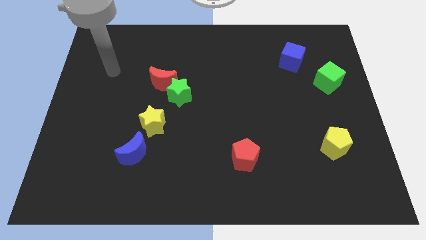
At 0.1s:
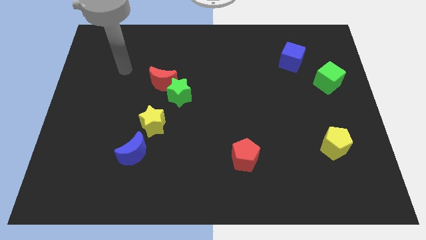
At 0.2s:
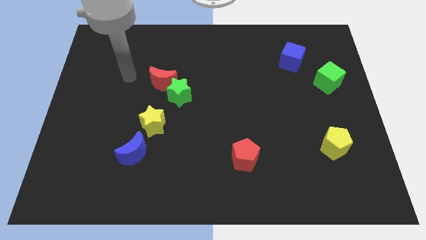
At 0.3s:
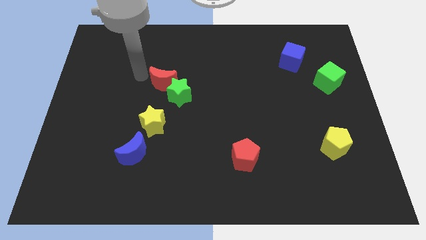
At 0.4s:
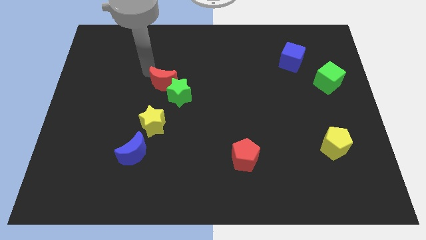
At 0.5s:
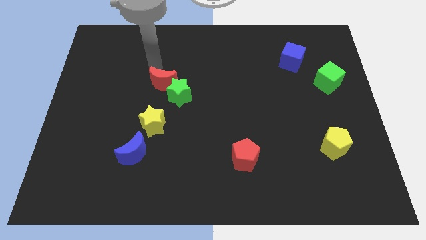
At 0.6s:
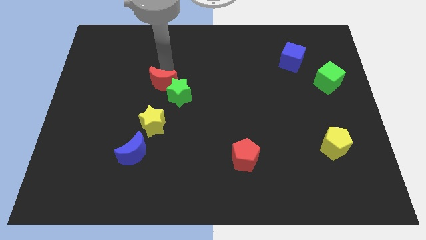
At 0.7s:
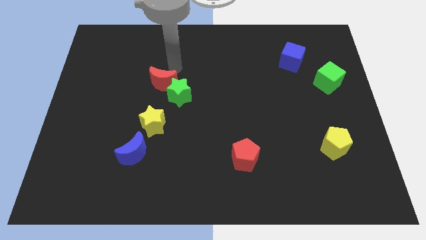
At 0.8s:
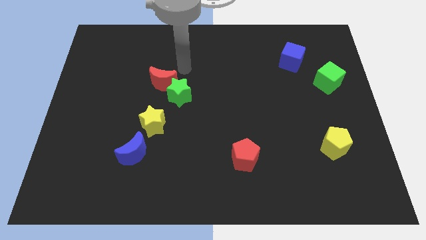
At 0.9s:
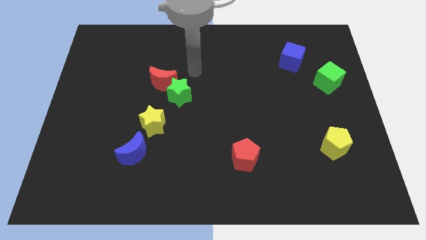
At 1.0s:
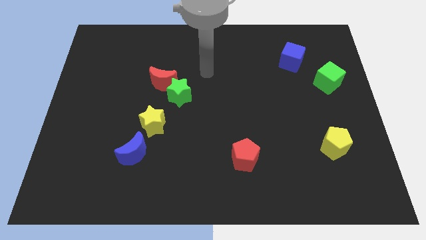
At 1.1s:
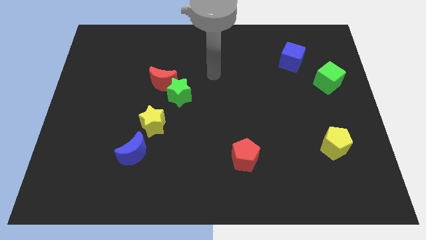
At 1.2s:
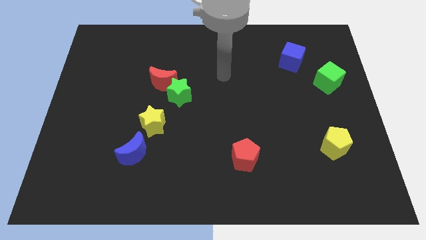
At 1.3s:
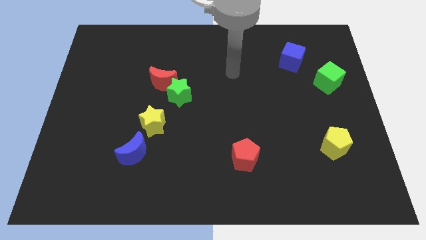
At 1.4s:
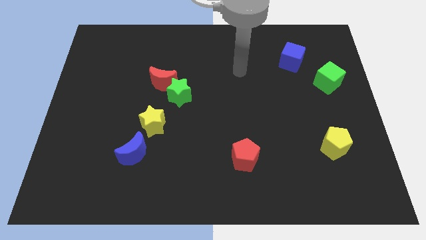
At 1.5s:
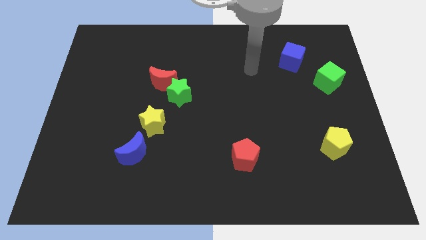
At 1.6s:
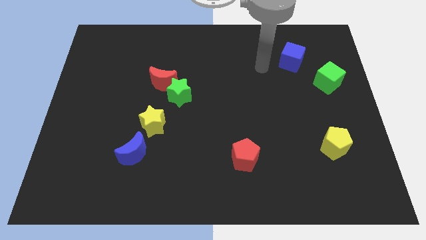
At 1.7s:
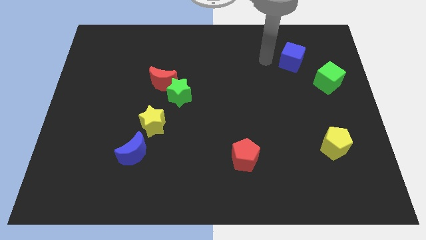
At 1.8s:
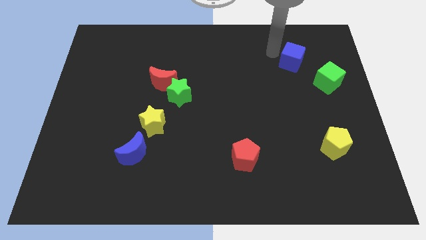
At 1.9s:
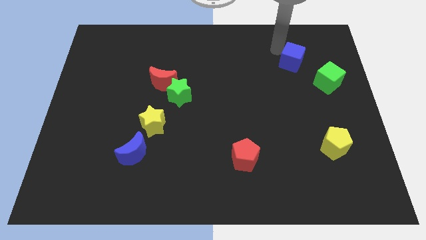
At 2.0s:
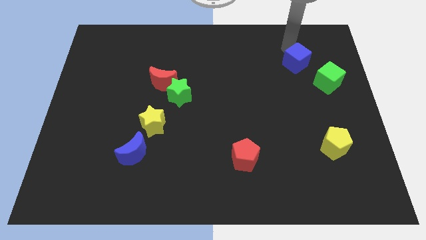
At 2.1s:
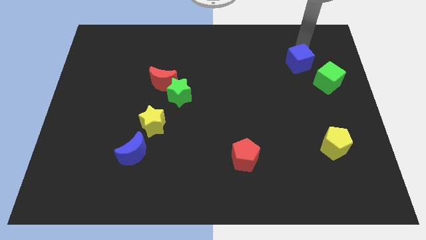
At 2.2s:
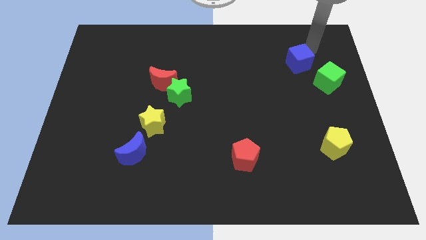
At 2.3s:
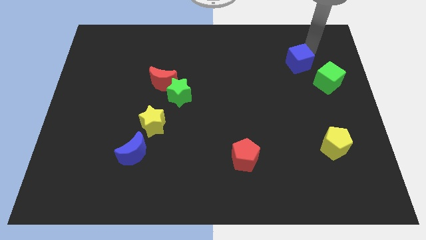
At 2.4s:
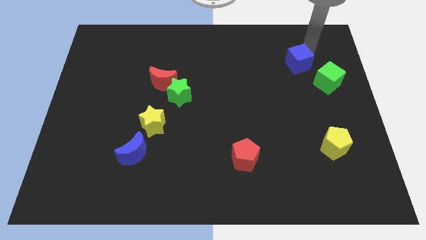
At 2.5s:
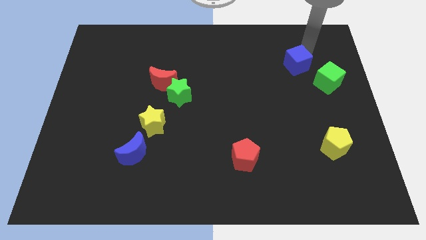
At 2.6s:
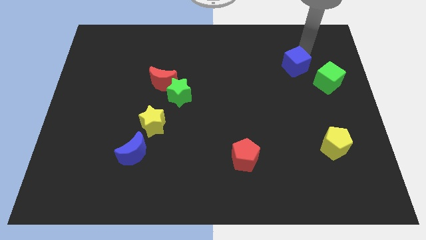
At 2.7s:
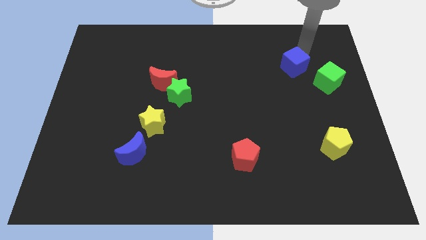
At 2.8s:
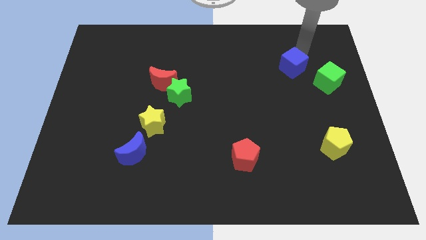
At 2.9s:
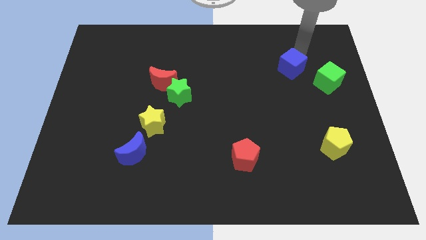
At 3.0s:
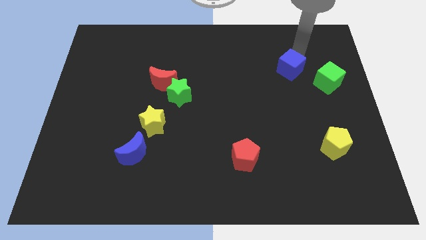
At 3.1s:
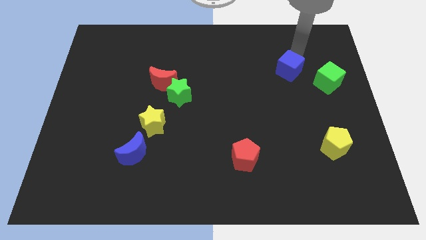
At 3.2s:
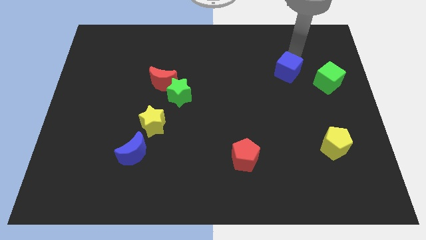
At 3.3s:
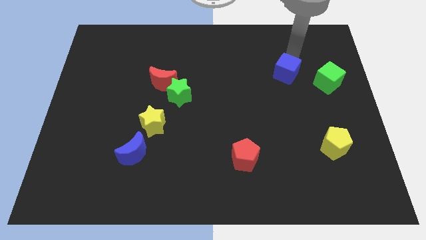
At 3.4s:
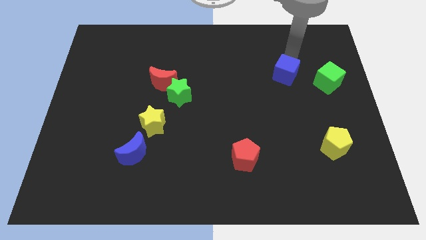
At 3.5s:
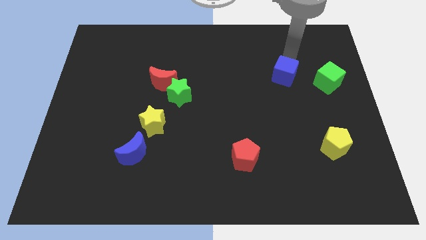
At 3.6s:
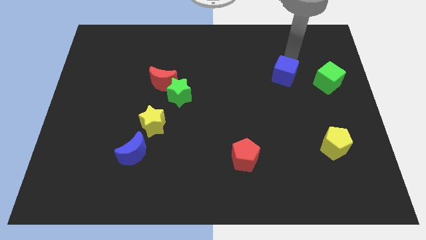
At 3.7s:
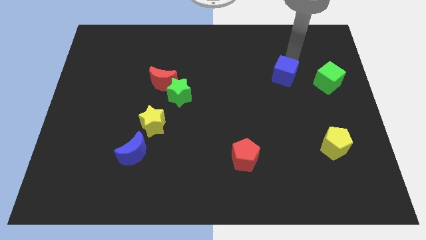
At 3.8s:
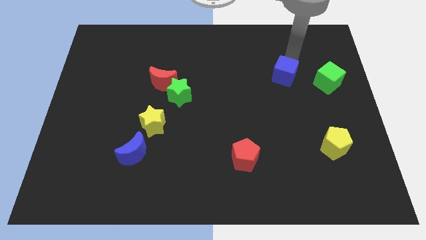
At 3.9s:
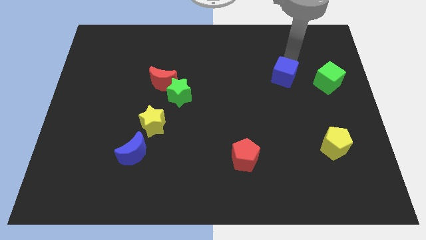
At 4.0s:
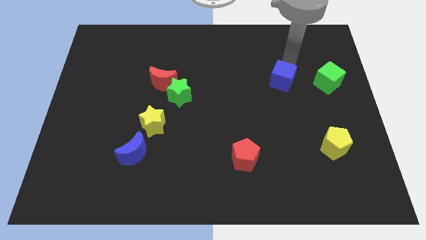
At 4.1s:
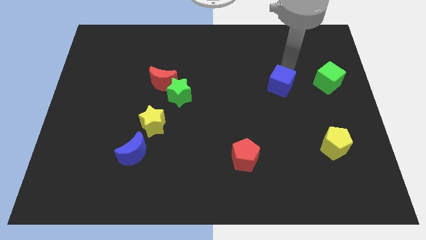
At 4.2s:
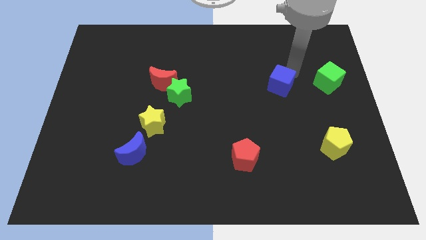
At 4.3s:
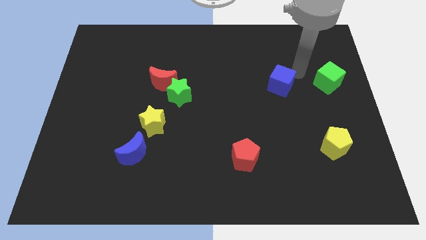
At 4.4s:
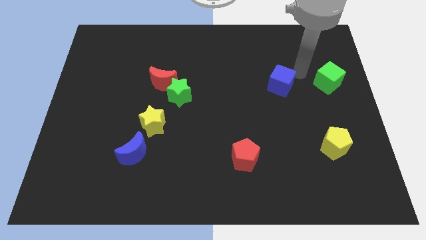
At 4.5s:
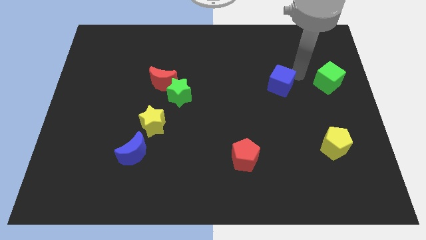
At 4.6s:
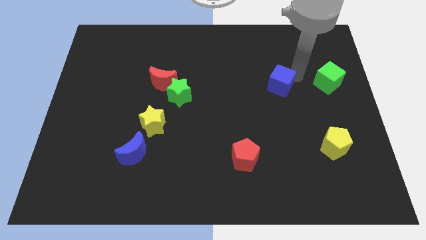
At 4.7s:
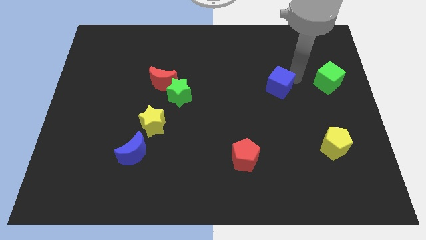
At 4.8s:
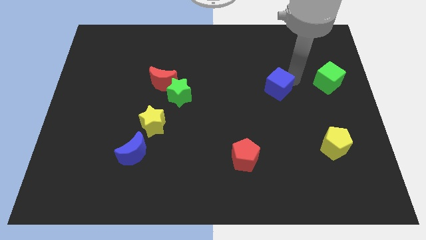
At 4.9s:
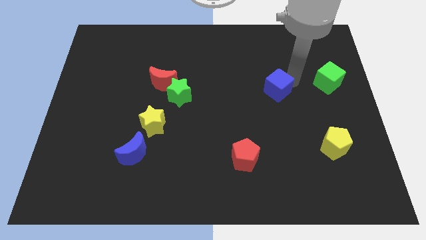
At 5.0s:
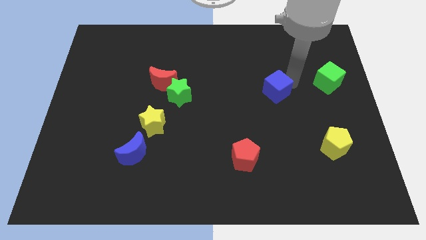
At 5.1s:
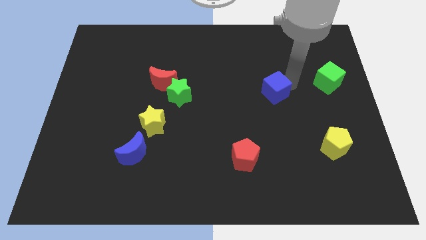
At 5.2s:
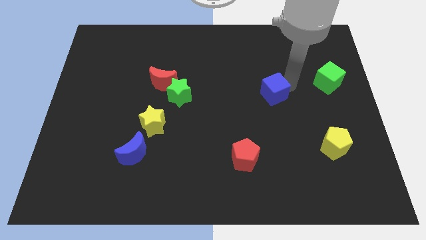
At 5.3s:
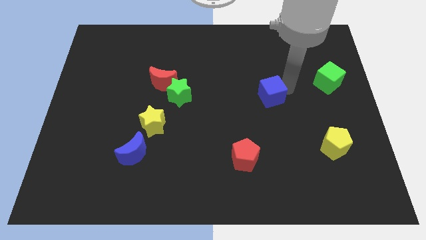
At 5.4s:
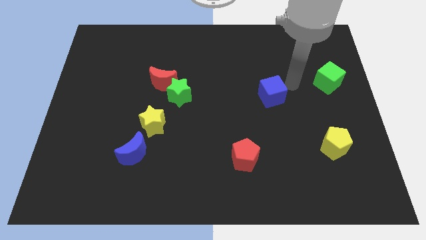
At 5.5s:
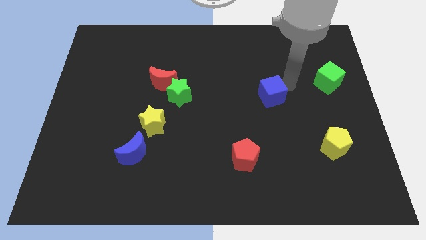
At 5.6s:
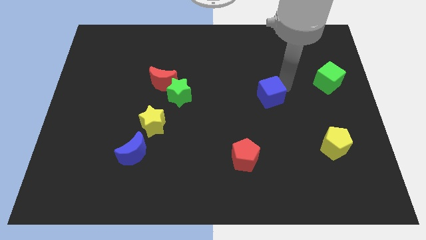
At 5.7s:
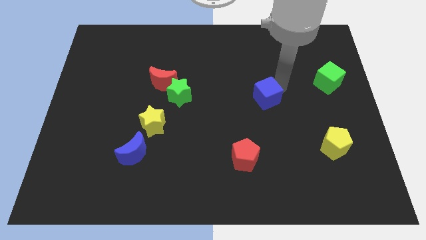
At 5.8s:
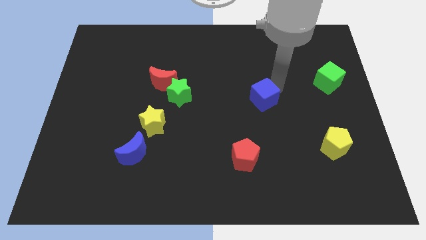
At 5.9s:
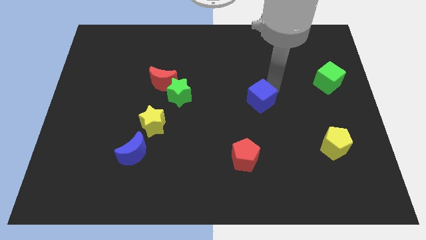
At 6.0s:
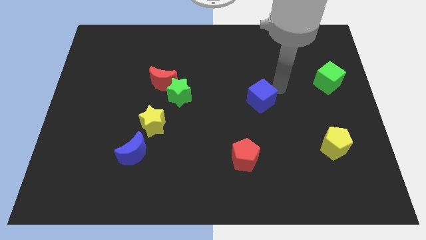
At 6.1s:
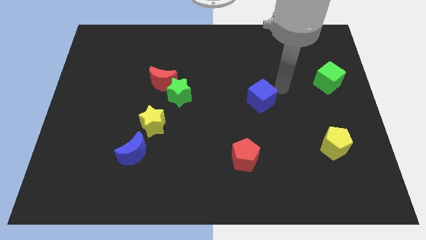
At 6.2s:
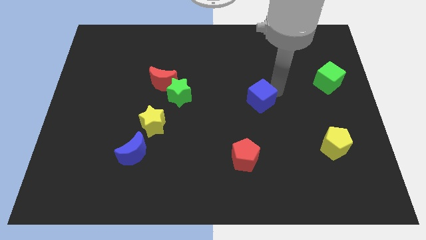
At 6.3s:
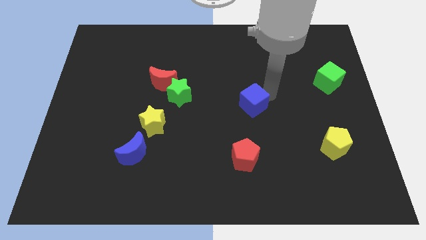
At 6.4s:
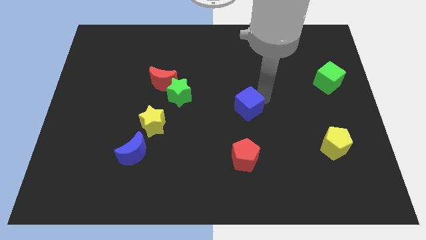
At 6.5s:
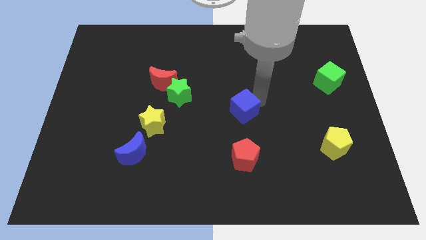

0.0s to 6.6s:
push the blue cube downwards and left diagonally

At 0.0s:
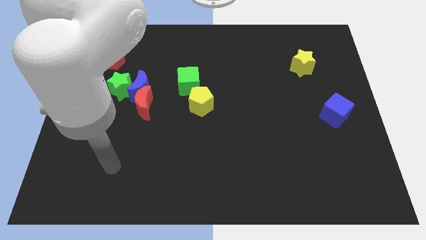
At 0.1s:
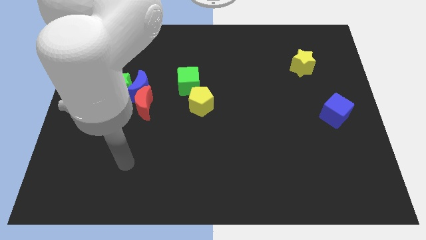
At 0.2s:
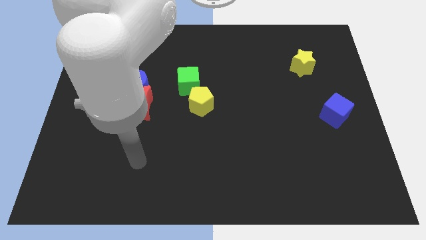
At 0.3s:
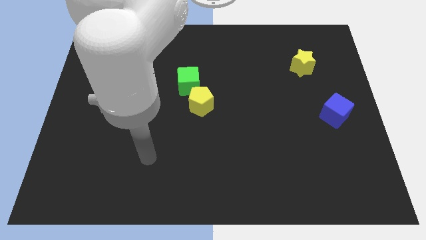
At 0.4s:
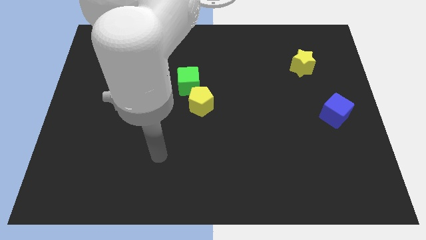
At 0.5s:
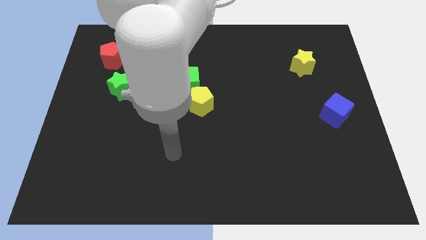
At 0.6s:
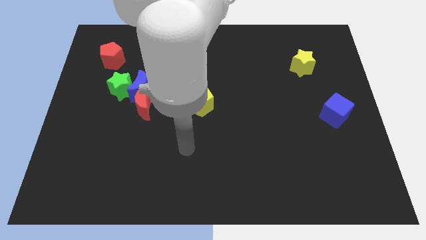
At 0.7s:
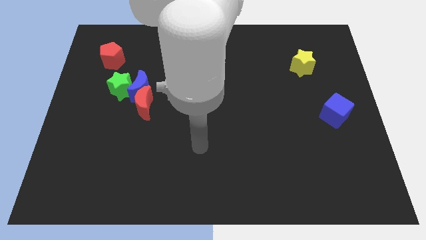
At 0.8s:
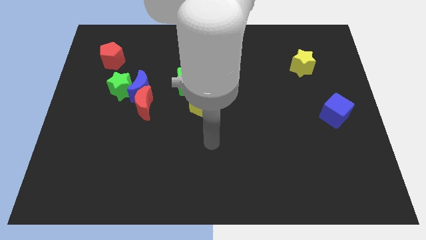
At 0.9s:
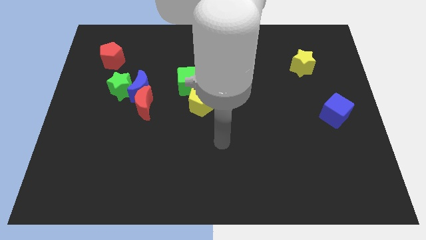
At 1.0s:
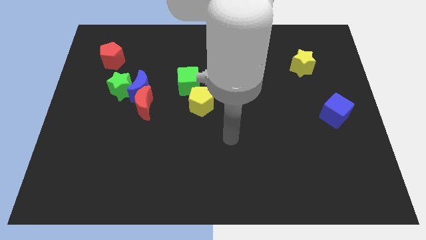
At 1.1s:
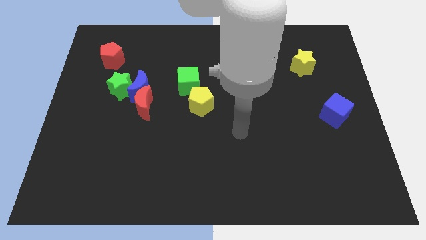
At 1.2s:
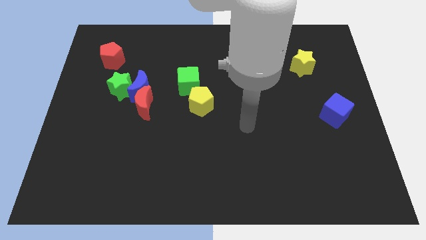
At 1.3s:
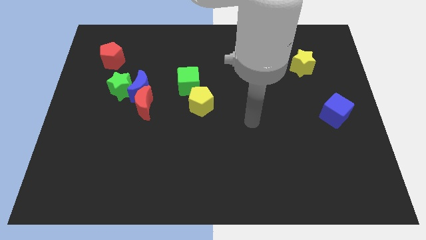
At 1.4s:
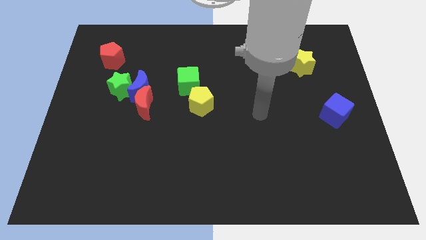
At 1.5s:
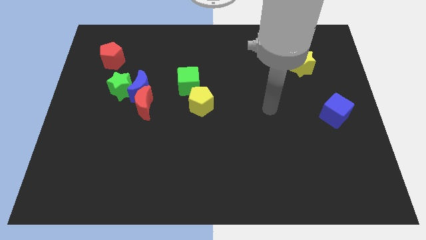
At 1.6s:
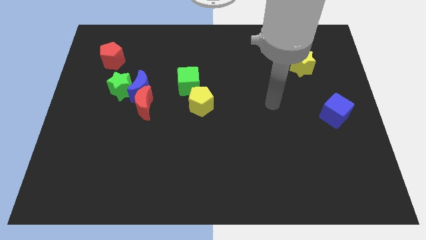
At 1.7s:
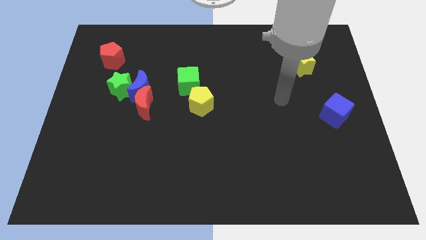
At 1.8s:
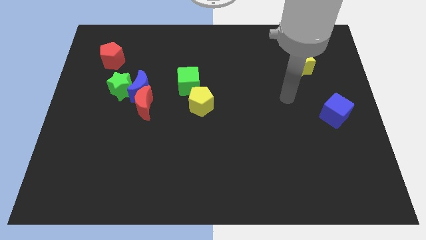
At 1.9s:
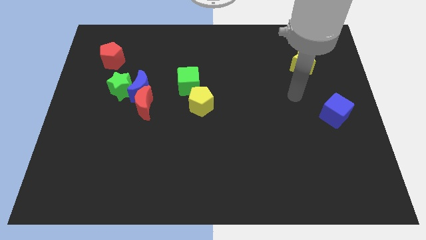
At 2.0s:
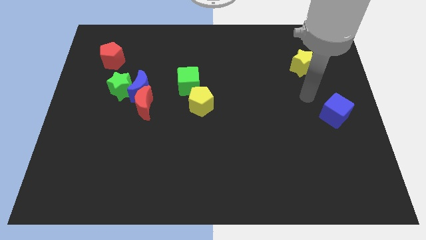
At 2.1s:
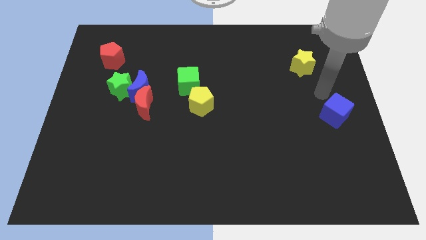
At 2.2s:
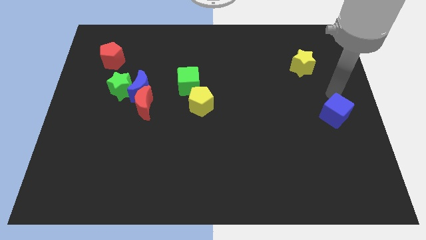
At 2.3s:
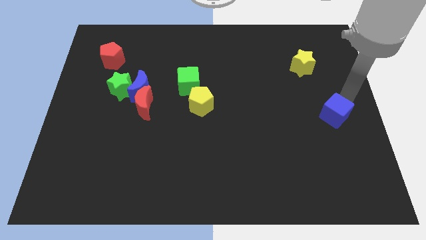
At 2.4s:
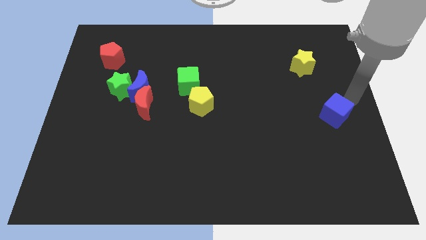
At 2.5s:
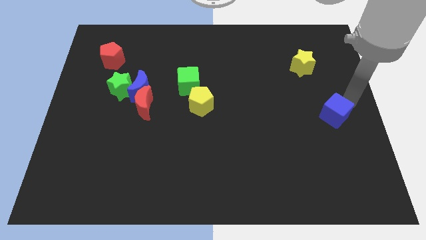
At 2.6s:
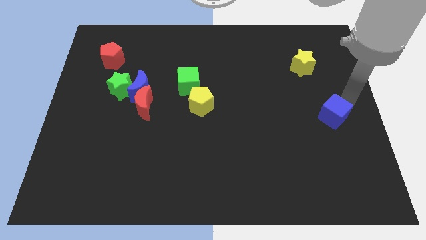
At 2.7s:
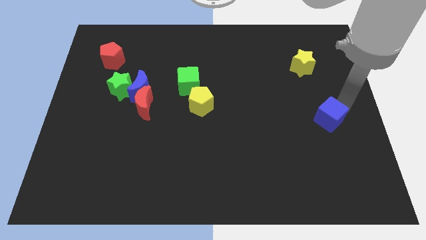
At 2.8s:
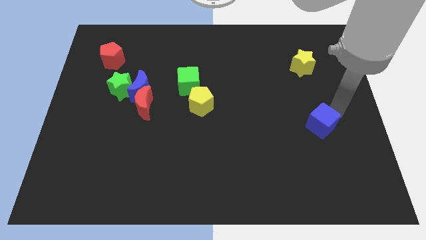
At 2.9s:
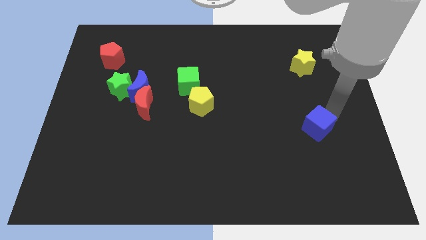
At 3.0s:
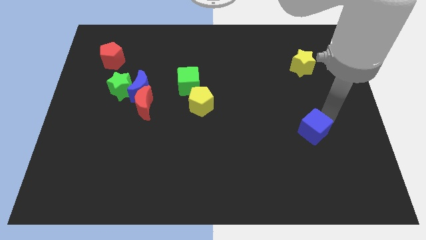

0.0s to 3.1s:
slightly move the blue cube down and to the left diagonally
